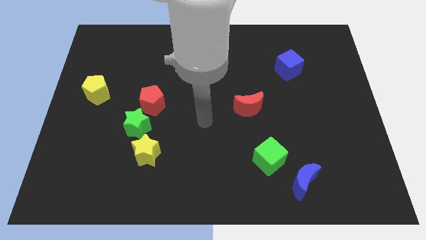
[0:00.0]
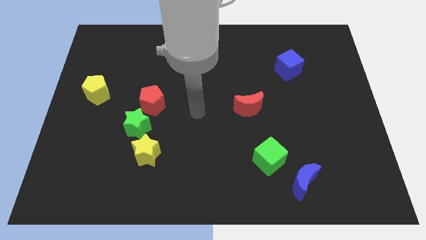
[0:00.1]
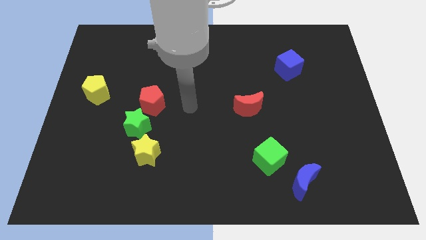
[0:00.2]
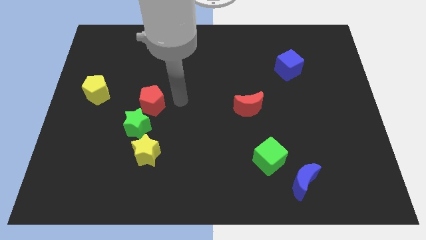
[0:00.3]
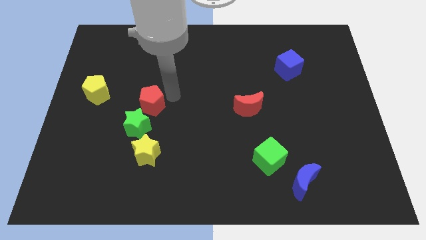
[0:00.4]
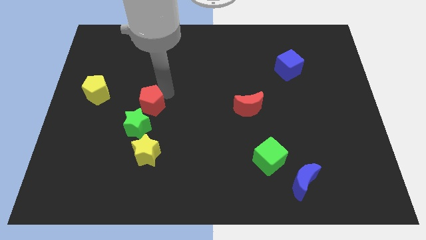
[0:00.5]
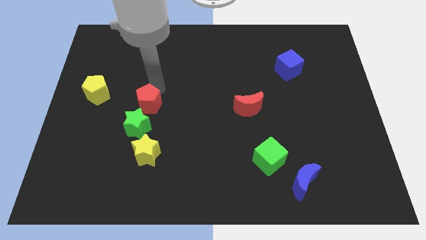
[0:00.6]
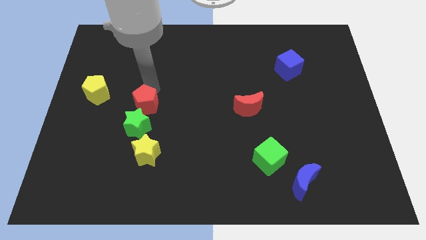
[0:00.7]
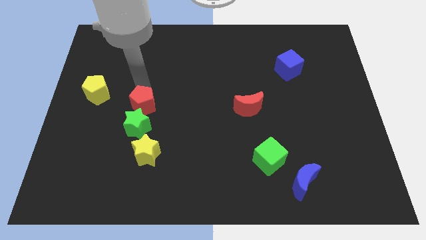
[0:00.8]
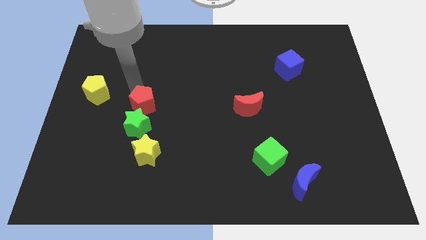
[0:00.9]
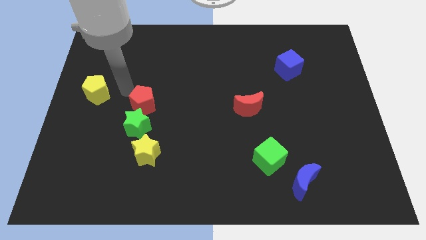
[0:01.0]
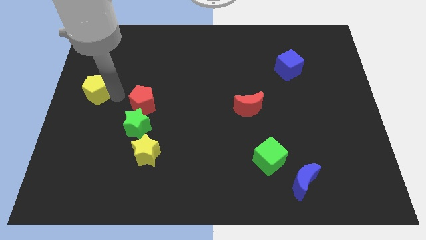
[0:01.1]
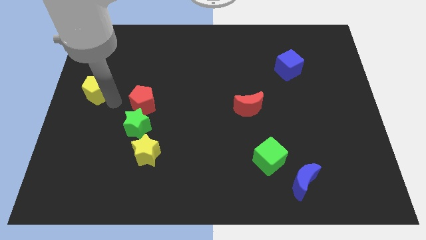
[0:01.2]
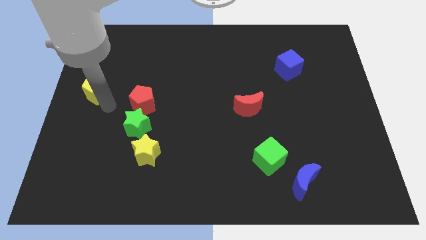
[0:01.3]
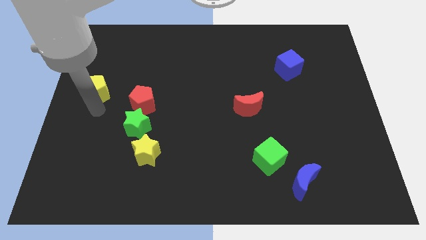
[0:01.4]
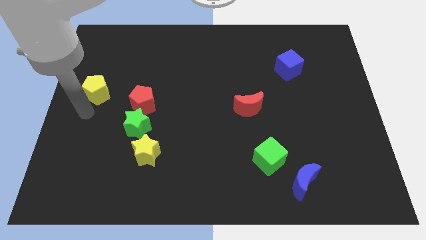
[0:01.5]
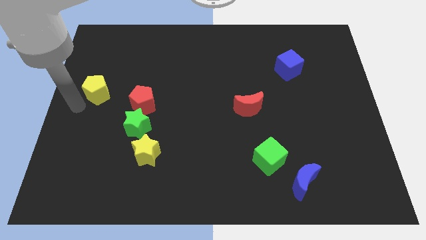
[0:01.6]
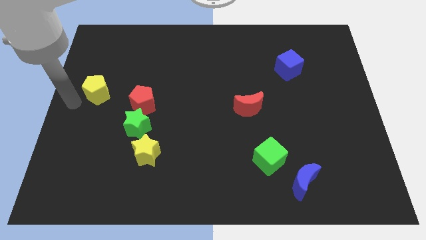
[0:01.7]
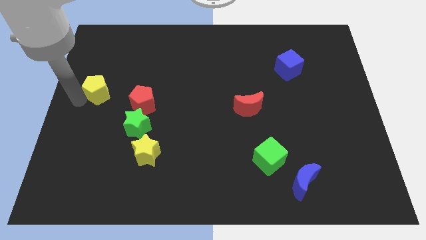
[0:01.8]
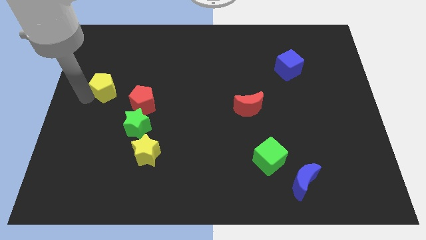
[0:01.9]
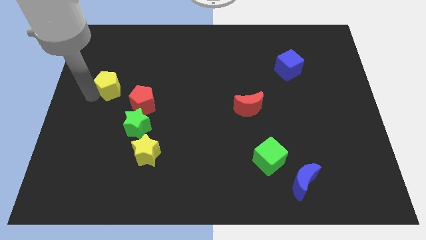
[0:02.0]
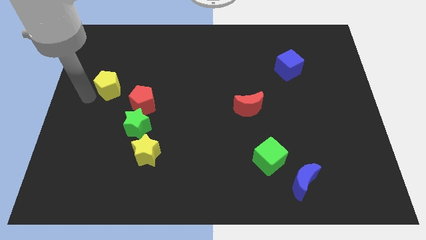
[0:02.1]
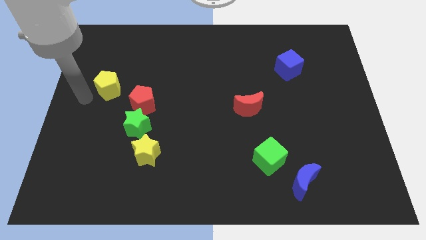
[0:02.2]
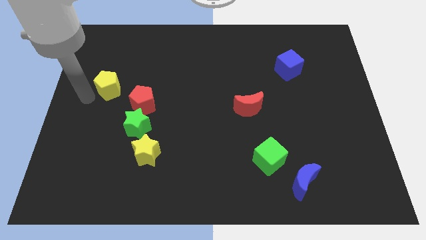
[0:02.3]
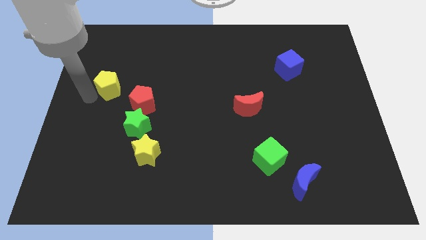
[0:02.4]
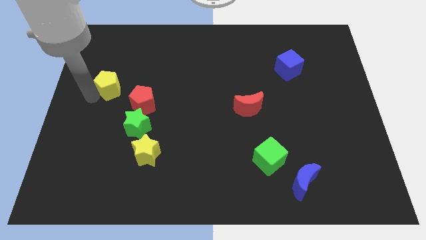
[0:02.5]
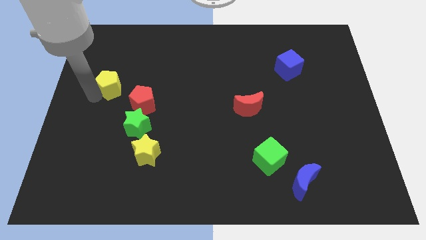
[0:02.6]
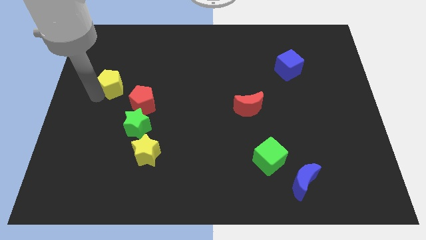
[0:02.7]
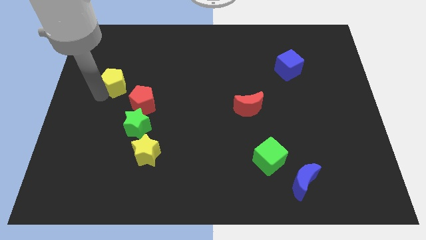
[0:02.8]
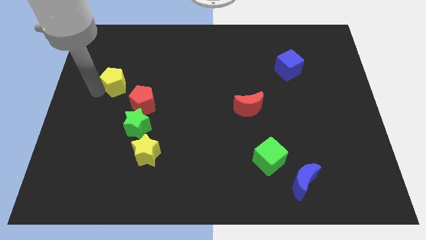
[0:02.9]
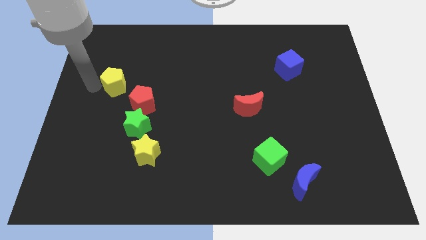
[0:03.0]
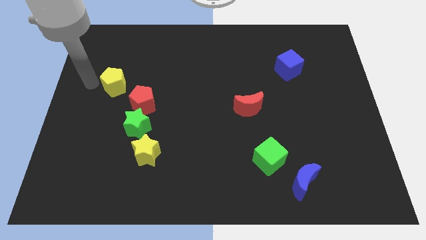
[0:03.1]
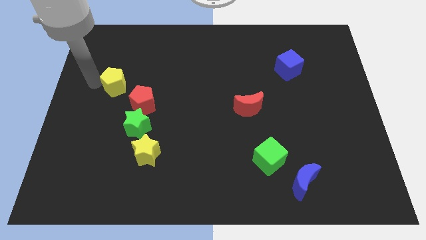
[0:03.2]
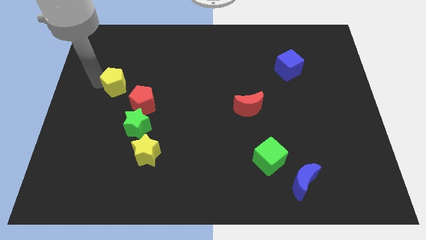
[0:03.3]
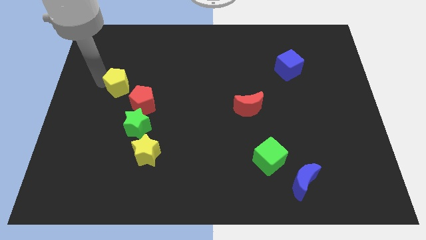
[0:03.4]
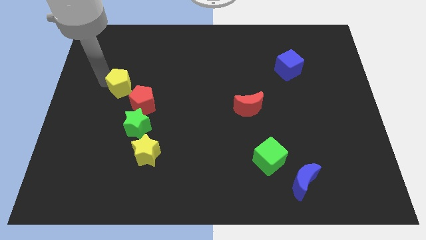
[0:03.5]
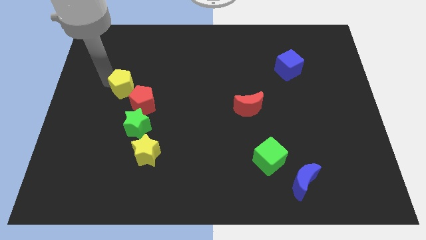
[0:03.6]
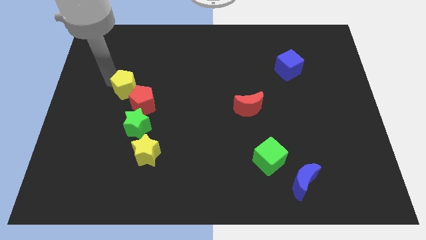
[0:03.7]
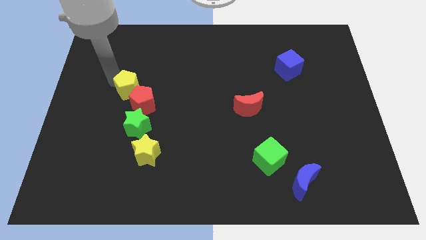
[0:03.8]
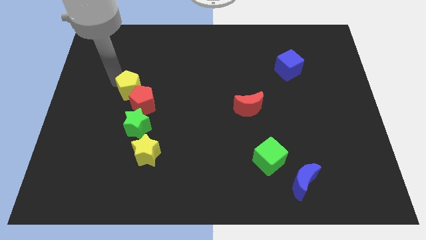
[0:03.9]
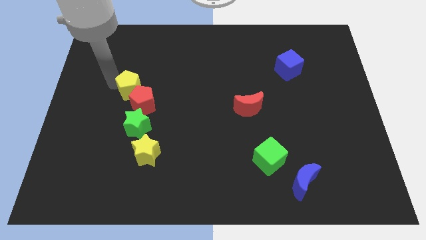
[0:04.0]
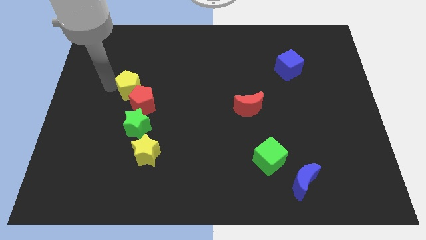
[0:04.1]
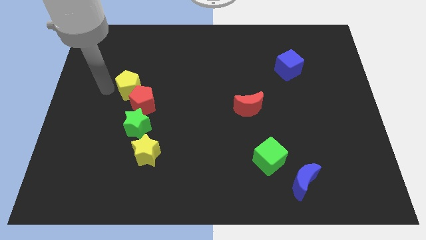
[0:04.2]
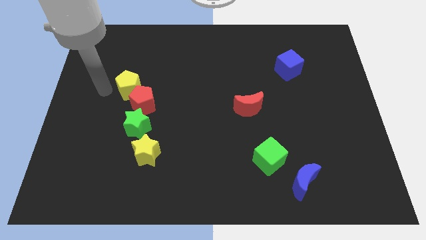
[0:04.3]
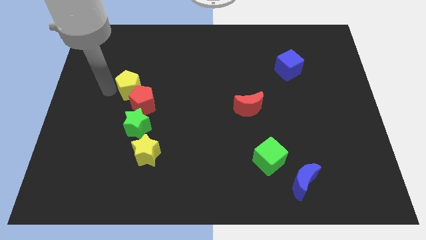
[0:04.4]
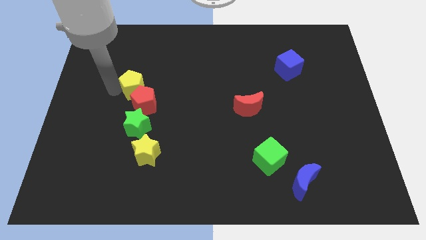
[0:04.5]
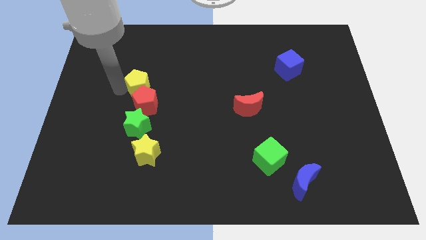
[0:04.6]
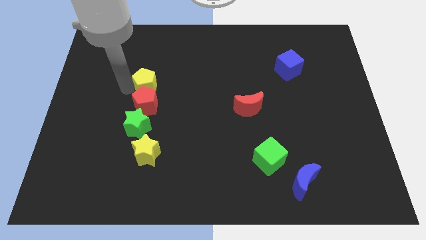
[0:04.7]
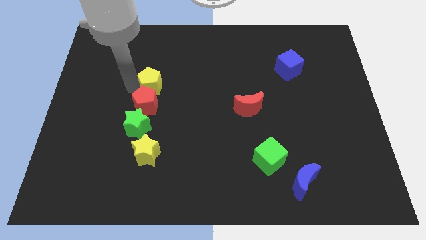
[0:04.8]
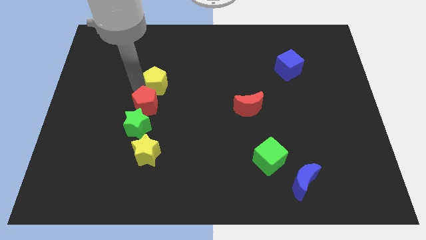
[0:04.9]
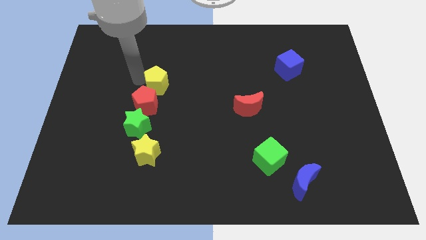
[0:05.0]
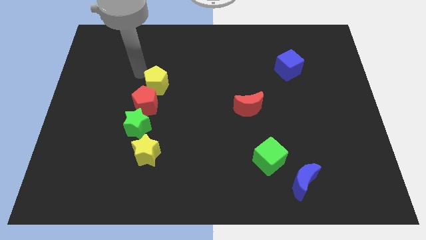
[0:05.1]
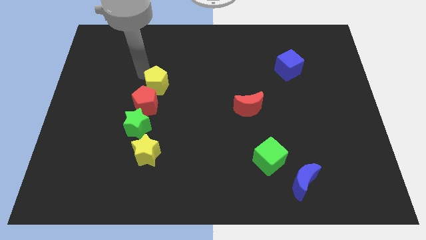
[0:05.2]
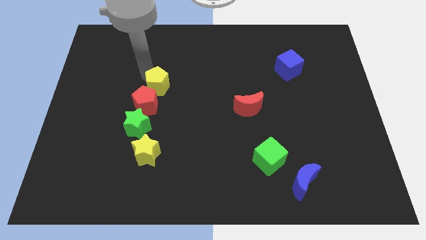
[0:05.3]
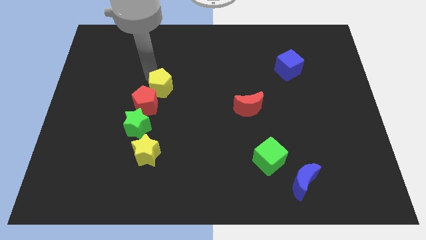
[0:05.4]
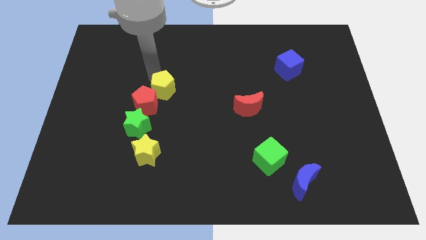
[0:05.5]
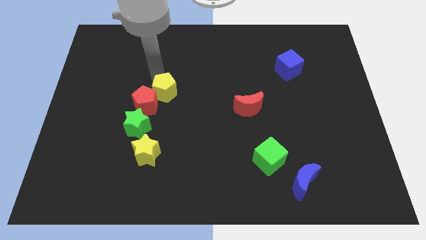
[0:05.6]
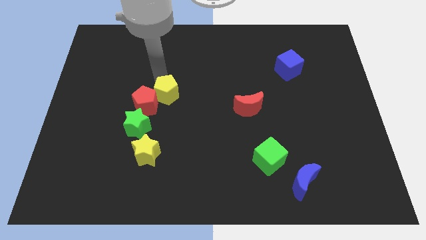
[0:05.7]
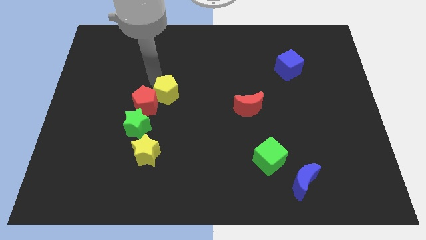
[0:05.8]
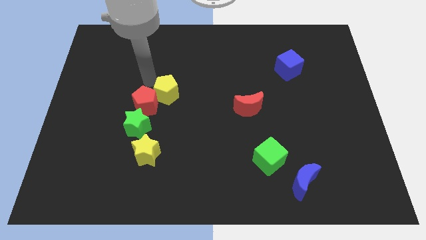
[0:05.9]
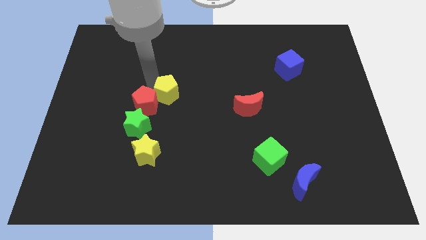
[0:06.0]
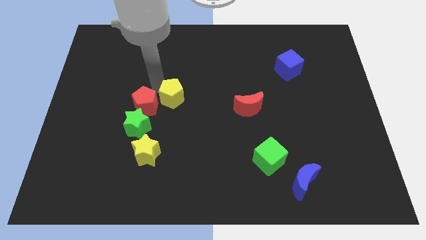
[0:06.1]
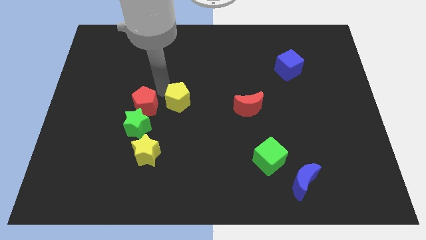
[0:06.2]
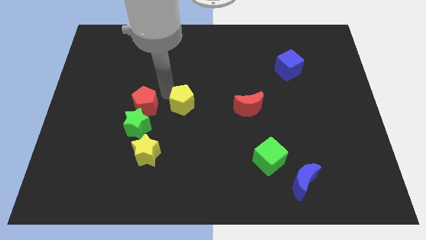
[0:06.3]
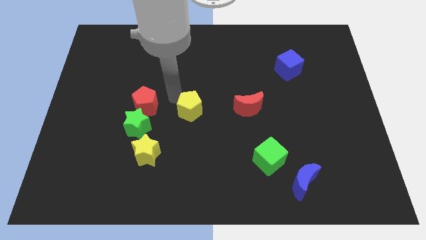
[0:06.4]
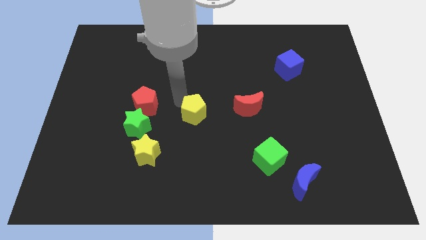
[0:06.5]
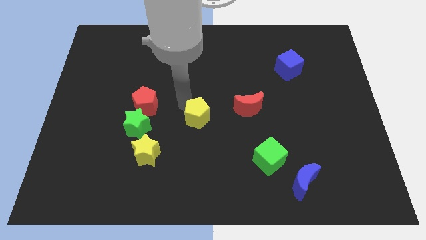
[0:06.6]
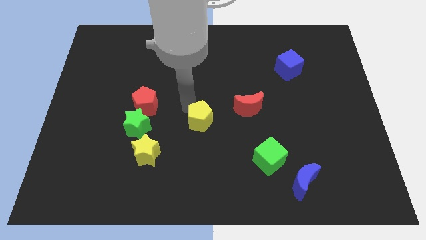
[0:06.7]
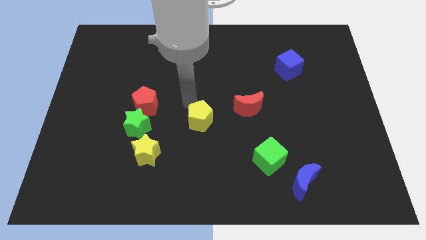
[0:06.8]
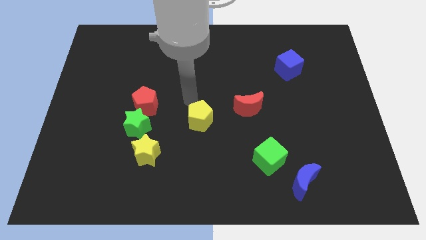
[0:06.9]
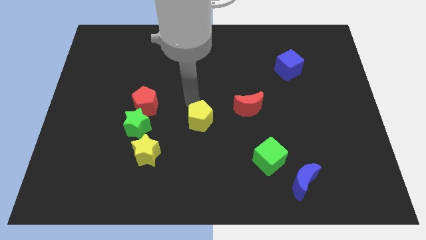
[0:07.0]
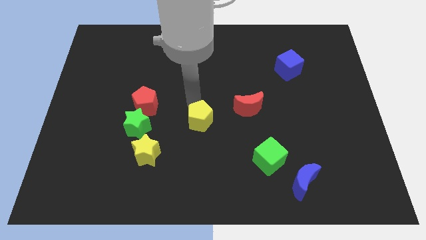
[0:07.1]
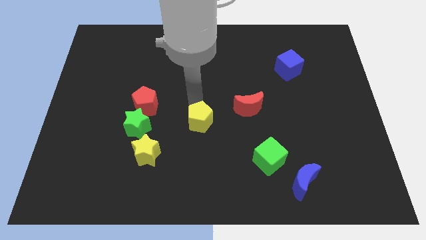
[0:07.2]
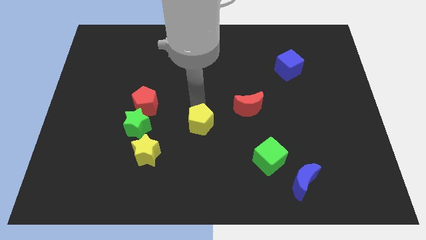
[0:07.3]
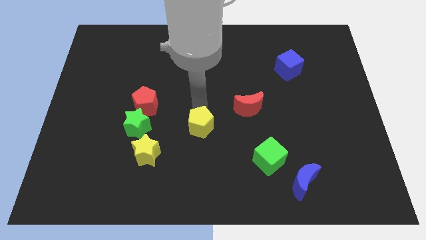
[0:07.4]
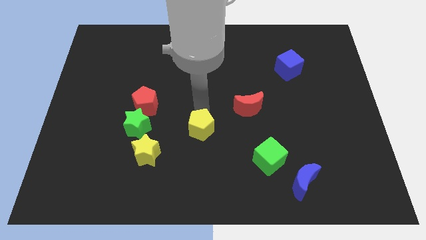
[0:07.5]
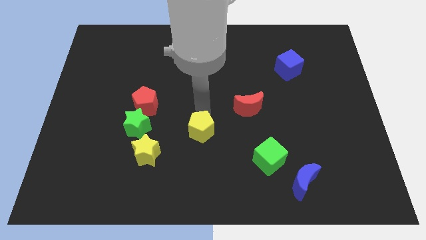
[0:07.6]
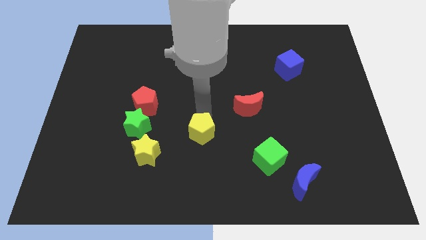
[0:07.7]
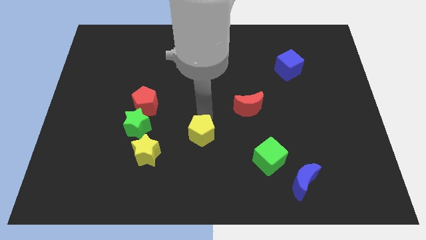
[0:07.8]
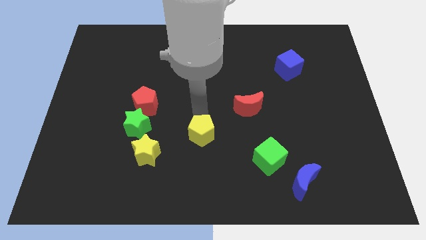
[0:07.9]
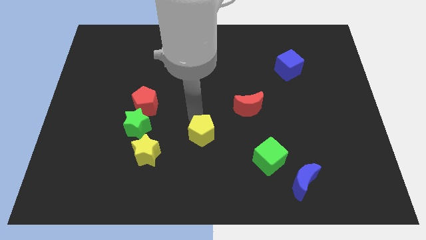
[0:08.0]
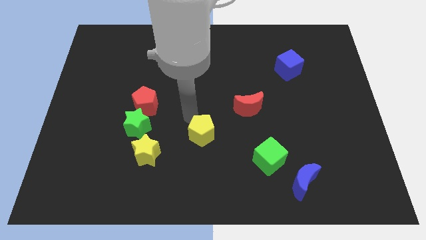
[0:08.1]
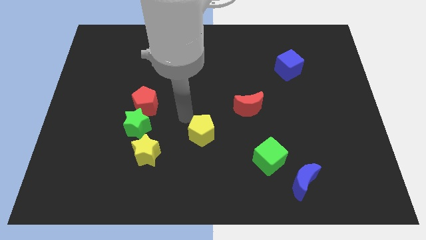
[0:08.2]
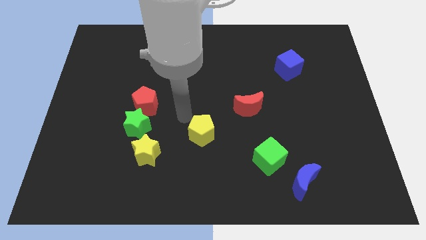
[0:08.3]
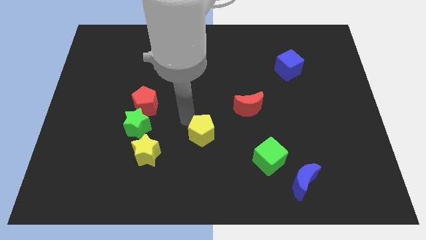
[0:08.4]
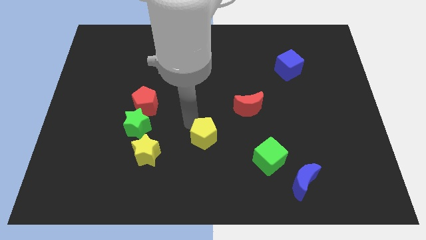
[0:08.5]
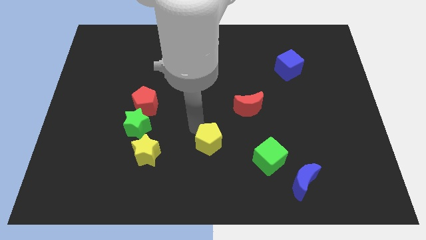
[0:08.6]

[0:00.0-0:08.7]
push the yellow pentagon to the left of the green cube
